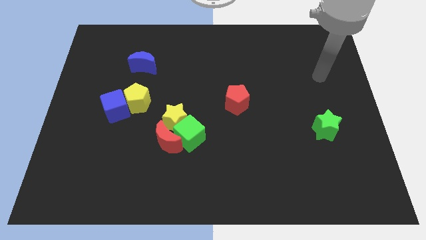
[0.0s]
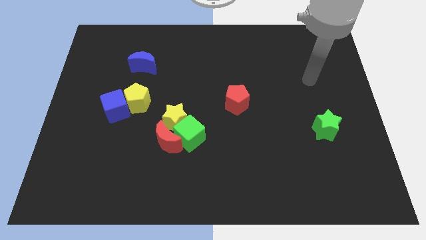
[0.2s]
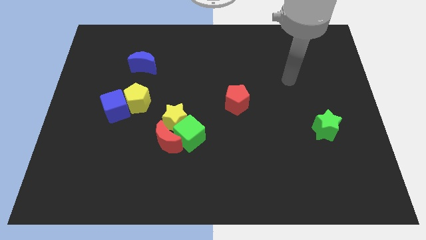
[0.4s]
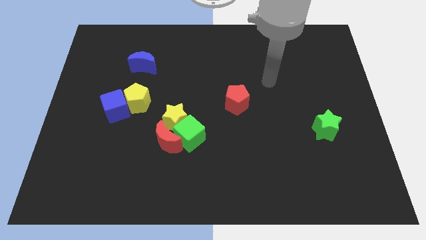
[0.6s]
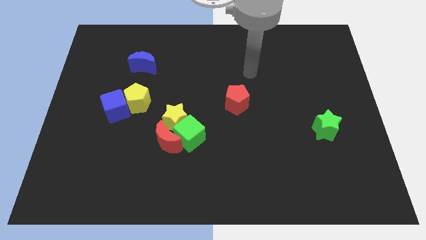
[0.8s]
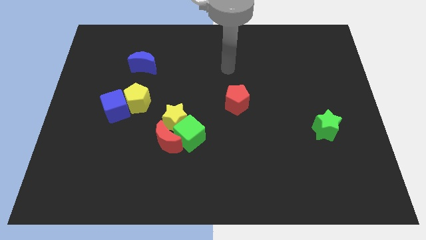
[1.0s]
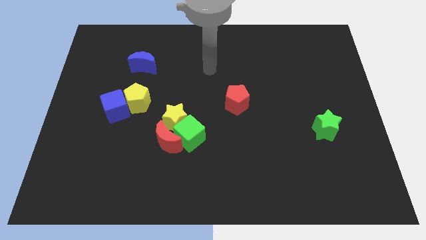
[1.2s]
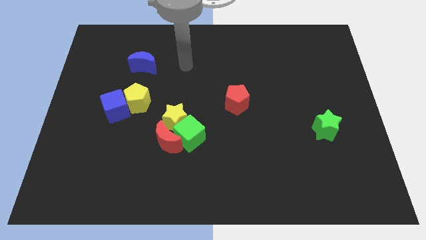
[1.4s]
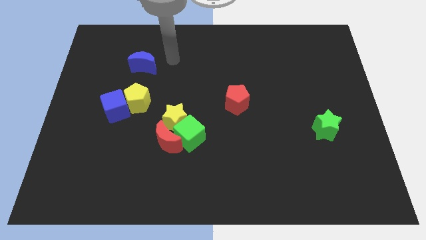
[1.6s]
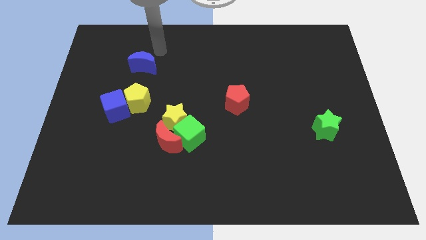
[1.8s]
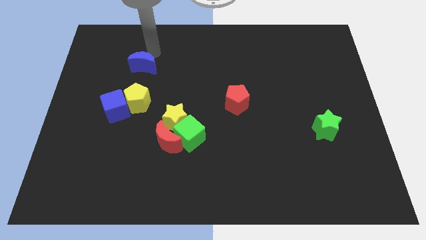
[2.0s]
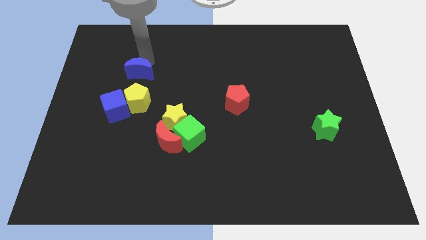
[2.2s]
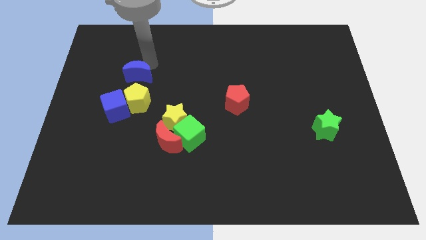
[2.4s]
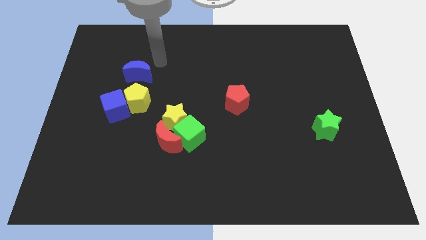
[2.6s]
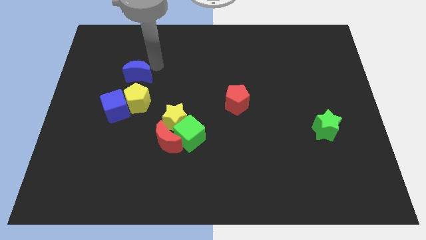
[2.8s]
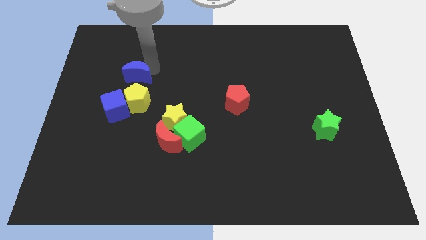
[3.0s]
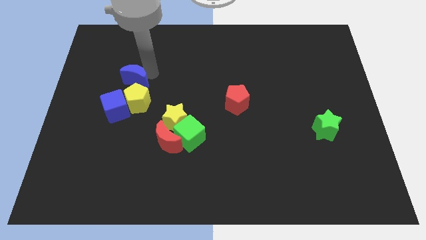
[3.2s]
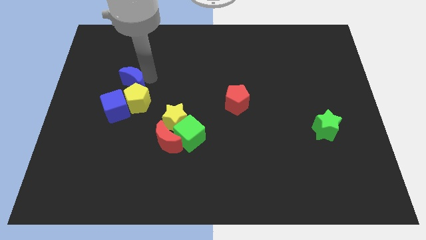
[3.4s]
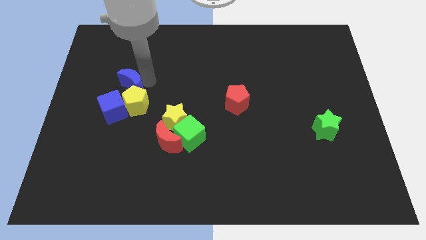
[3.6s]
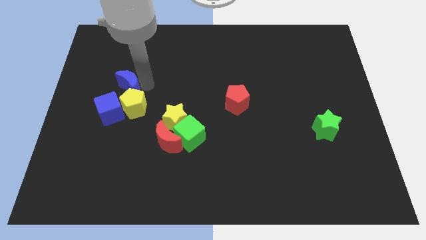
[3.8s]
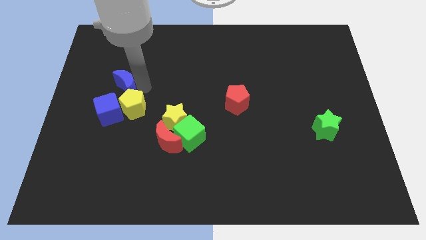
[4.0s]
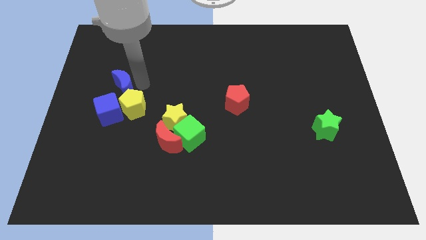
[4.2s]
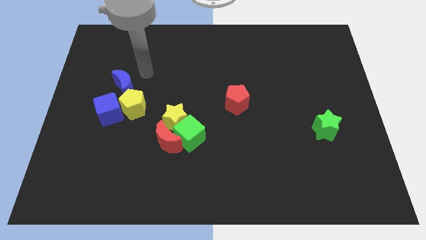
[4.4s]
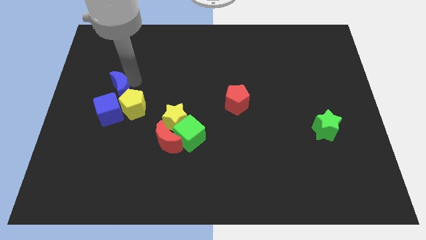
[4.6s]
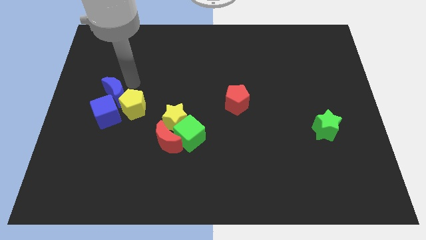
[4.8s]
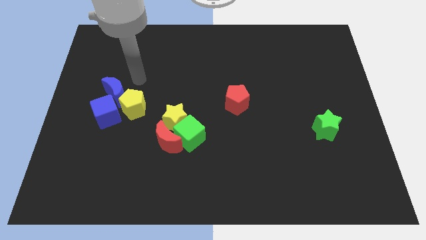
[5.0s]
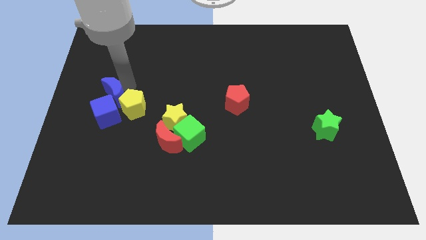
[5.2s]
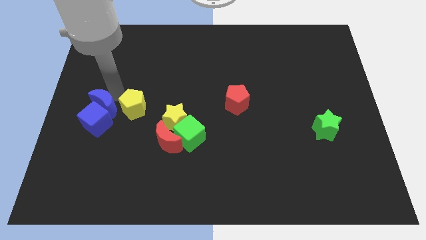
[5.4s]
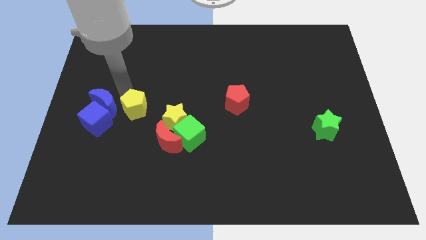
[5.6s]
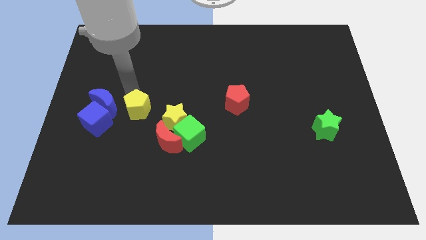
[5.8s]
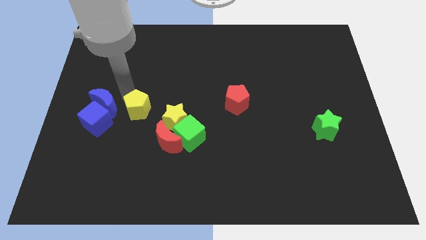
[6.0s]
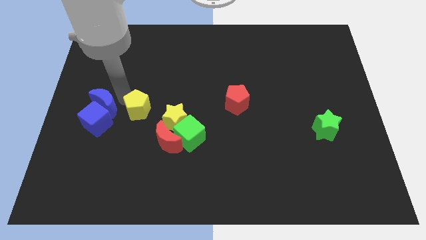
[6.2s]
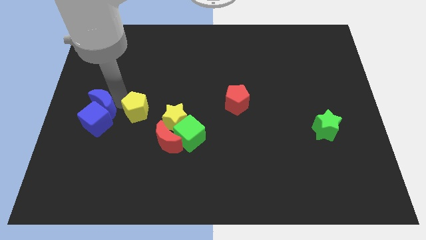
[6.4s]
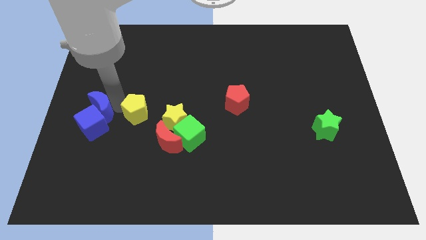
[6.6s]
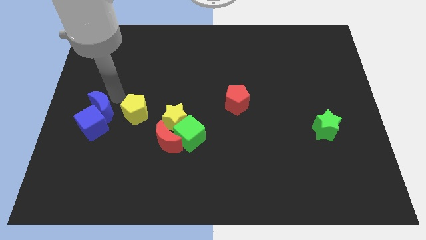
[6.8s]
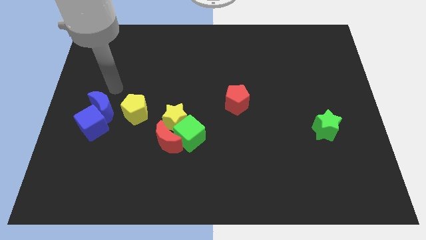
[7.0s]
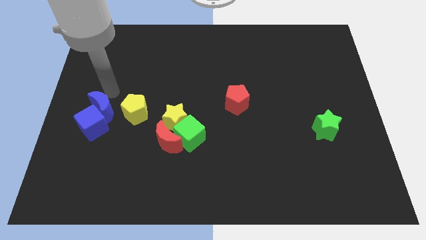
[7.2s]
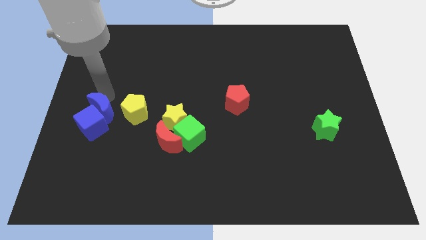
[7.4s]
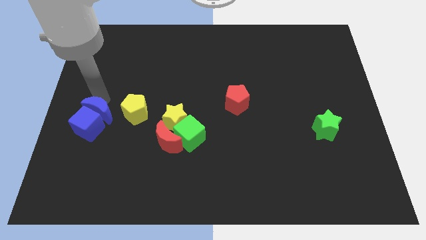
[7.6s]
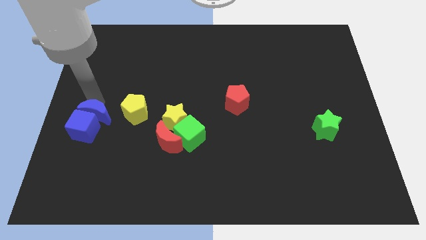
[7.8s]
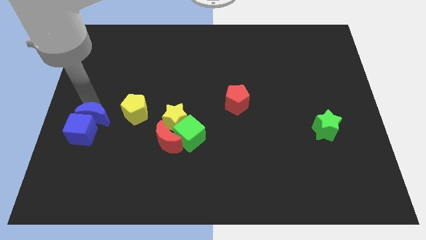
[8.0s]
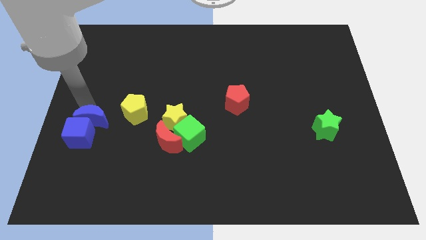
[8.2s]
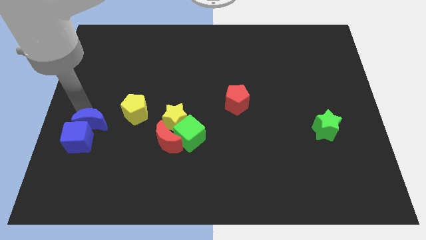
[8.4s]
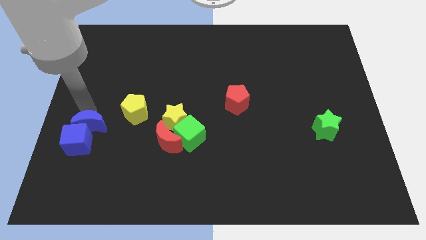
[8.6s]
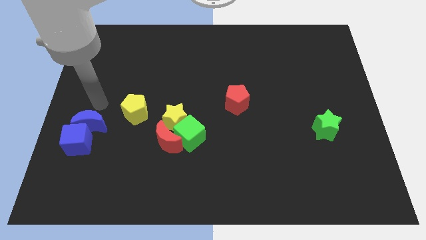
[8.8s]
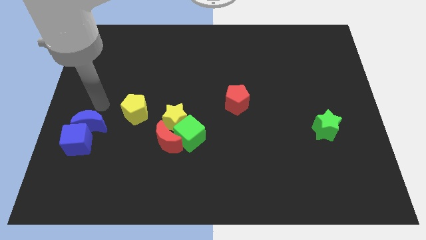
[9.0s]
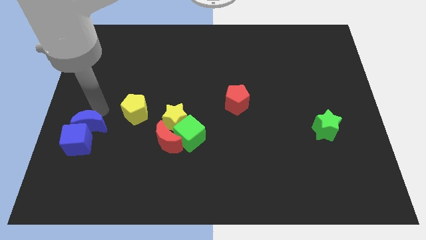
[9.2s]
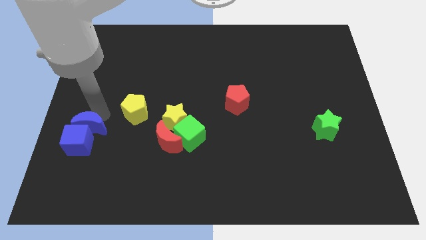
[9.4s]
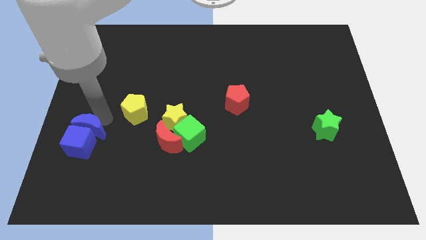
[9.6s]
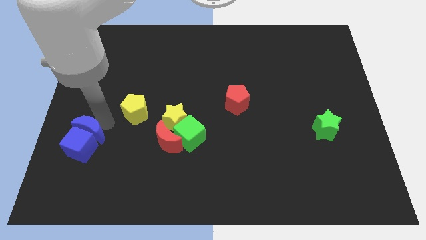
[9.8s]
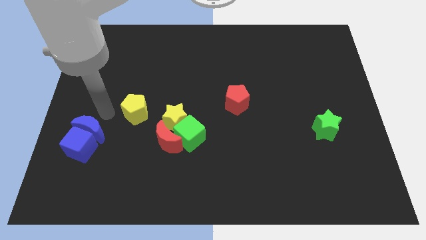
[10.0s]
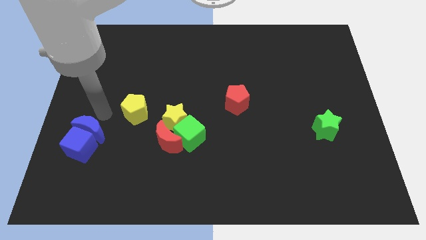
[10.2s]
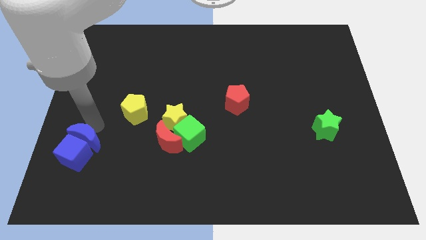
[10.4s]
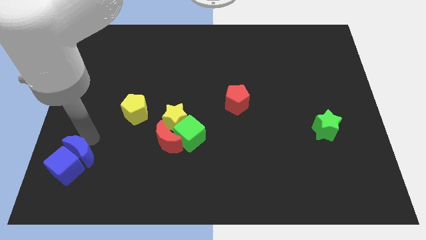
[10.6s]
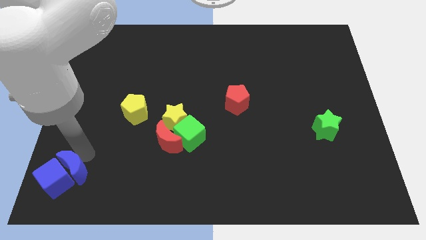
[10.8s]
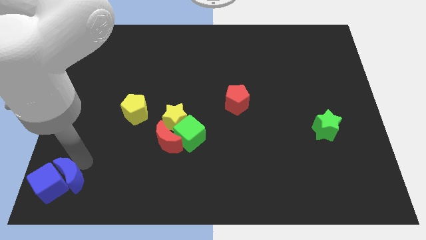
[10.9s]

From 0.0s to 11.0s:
slide the blue moon to the bottom left

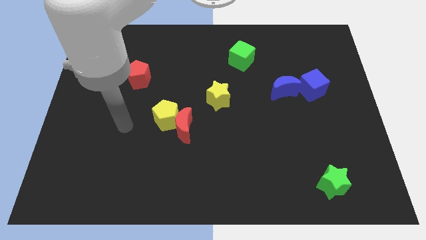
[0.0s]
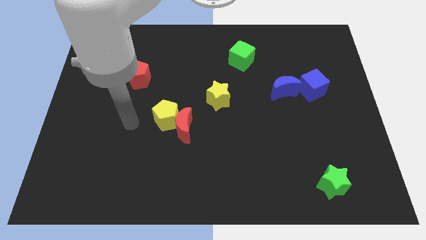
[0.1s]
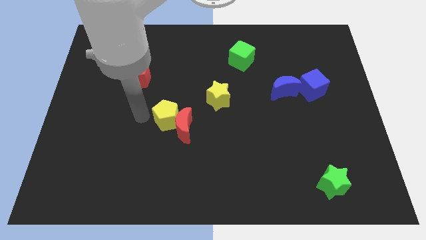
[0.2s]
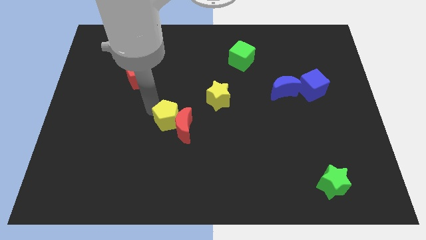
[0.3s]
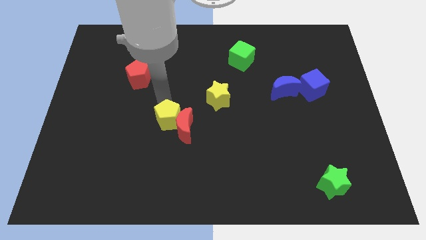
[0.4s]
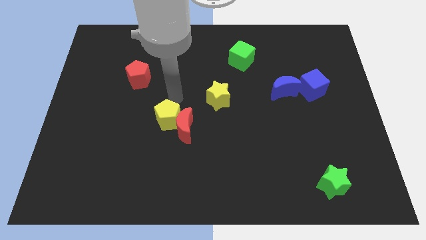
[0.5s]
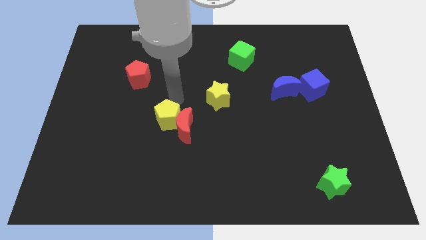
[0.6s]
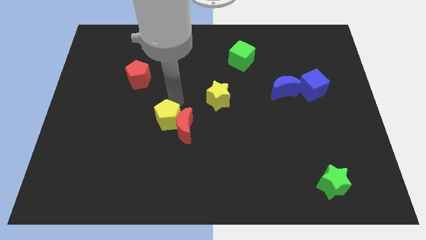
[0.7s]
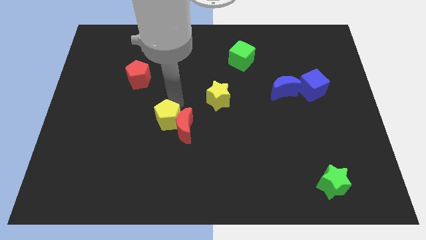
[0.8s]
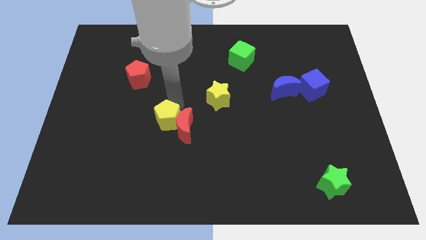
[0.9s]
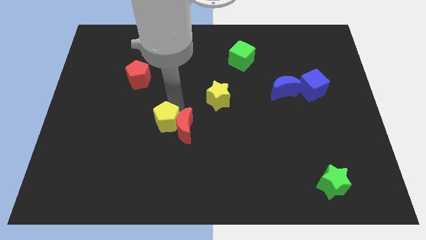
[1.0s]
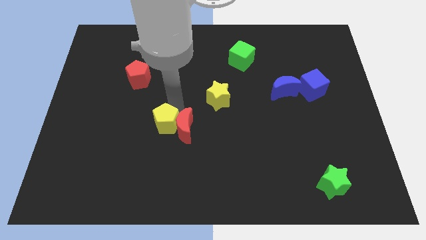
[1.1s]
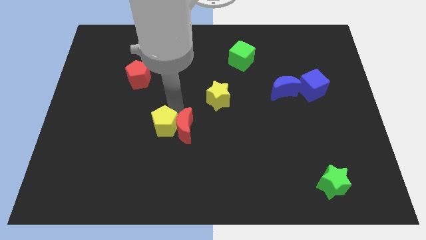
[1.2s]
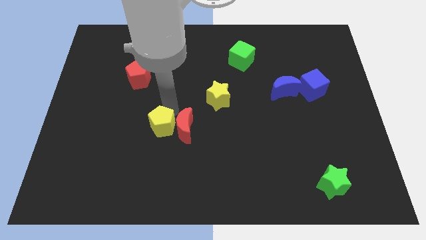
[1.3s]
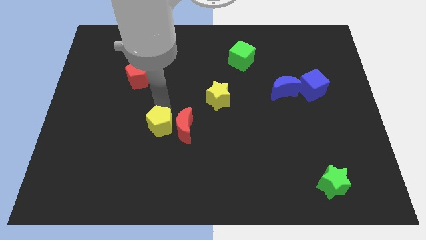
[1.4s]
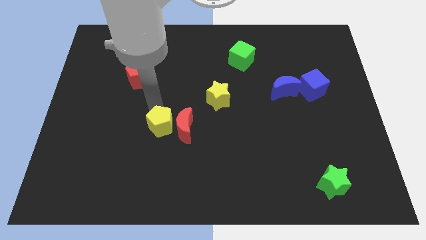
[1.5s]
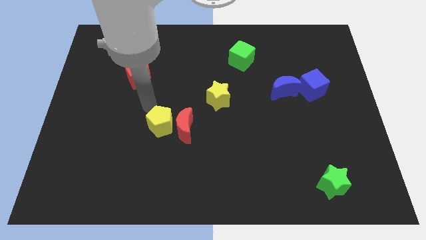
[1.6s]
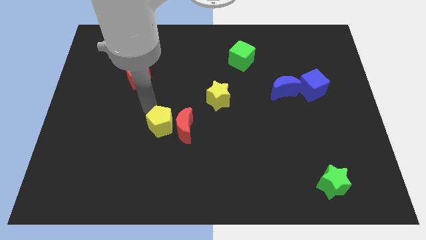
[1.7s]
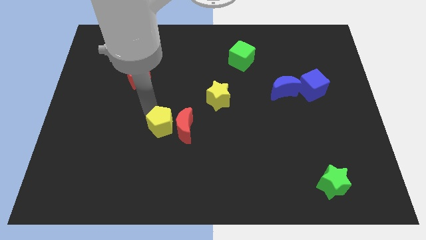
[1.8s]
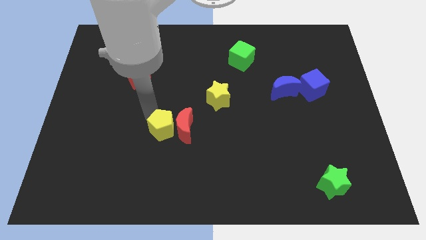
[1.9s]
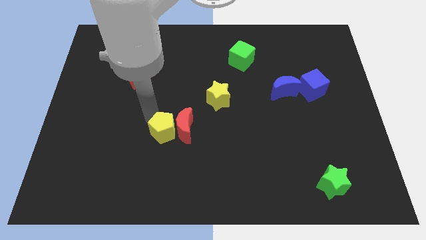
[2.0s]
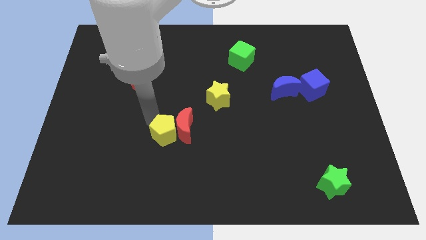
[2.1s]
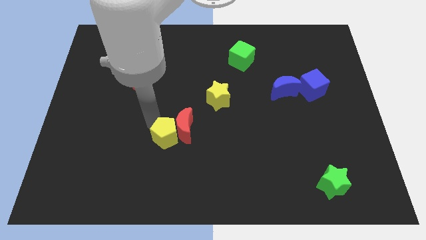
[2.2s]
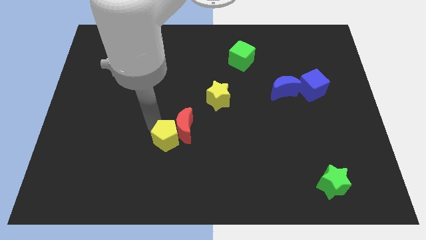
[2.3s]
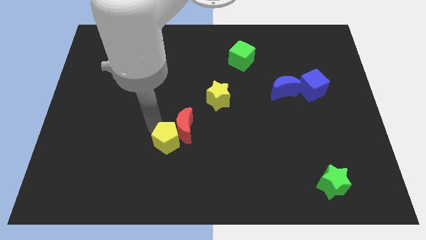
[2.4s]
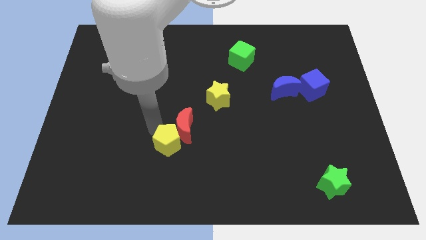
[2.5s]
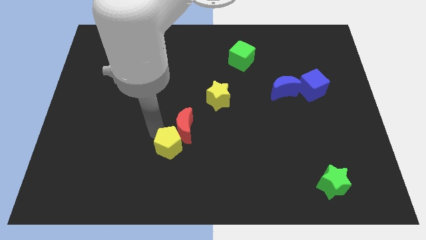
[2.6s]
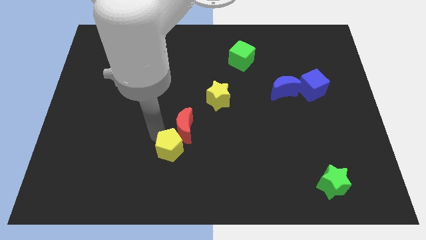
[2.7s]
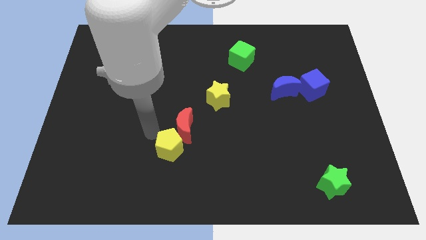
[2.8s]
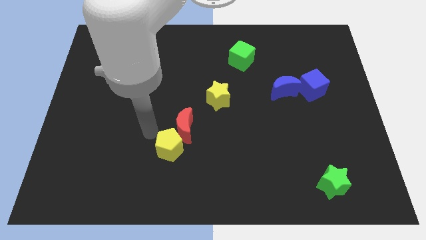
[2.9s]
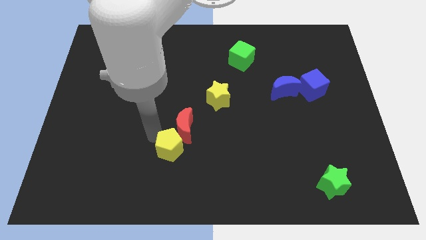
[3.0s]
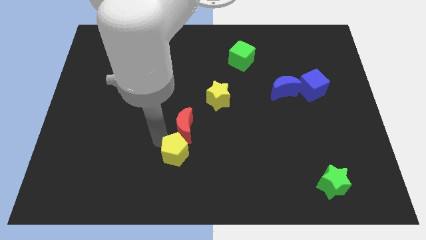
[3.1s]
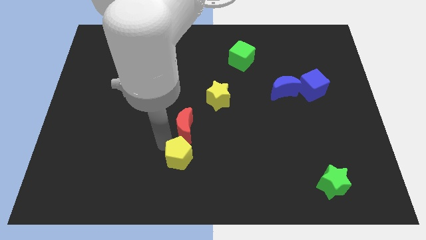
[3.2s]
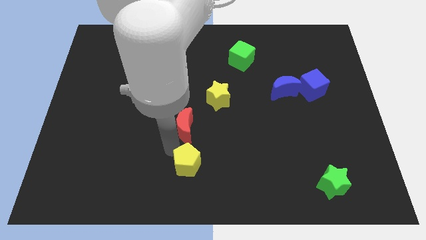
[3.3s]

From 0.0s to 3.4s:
put the yellow pentagon to the bottom side
